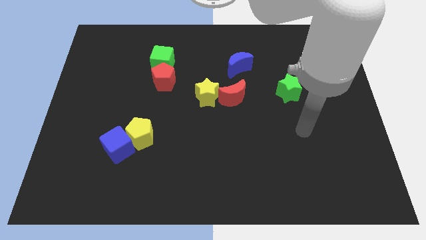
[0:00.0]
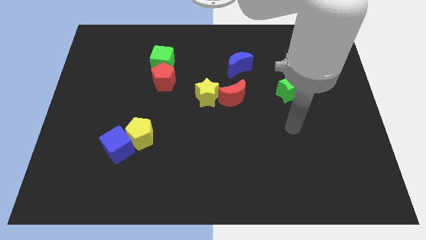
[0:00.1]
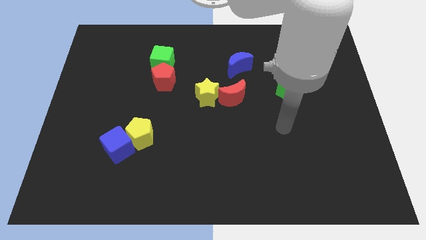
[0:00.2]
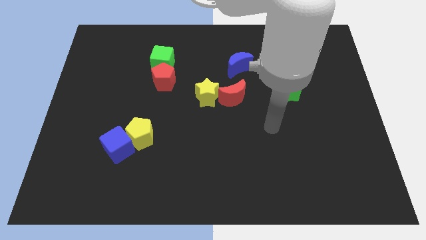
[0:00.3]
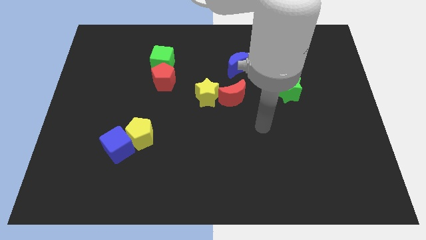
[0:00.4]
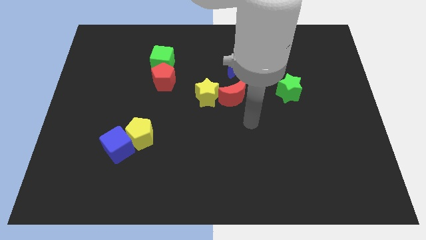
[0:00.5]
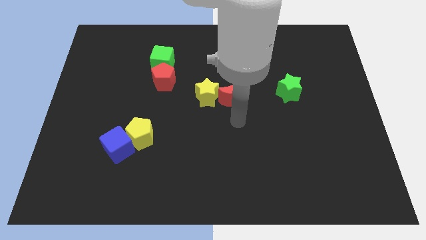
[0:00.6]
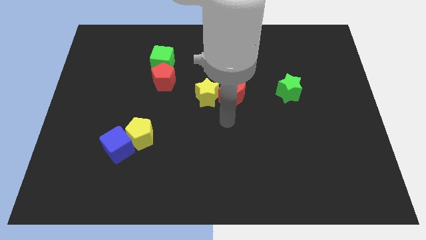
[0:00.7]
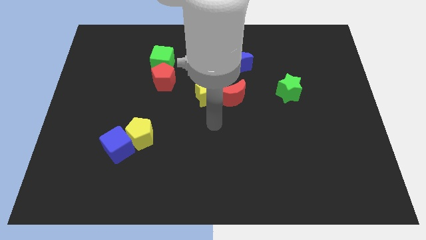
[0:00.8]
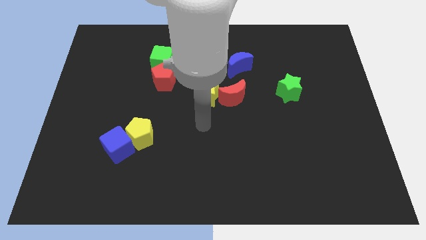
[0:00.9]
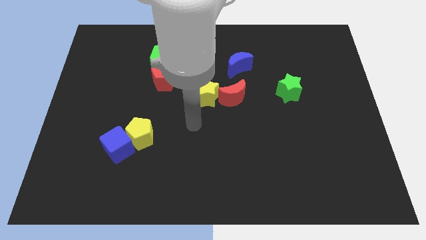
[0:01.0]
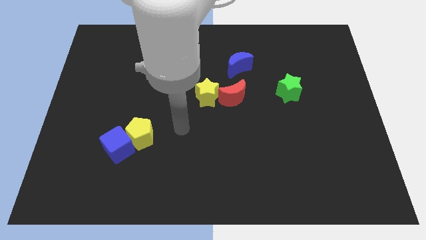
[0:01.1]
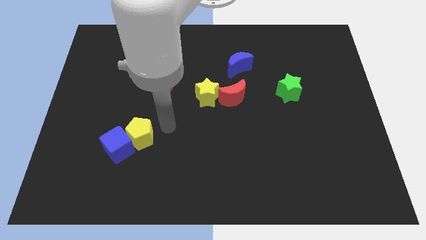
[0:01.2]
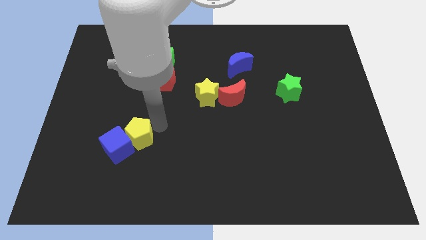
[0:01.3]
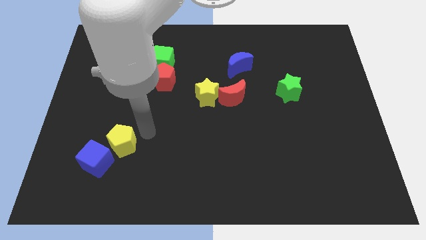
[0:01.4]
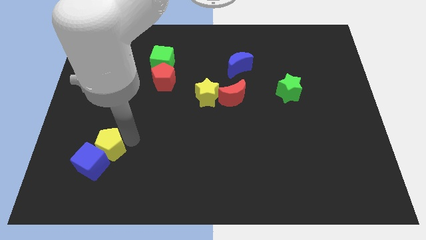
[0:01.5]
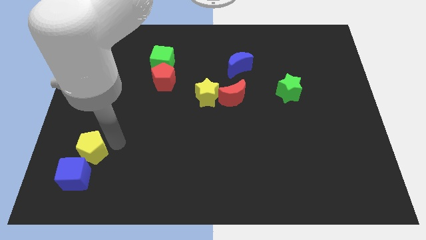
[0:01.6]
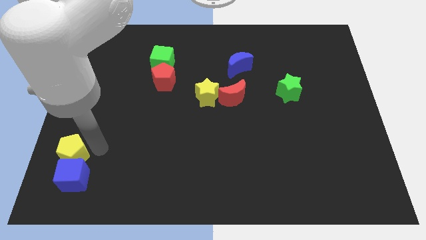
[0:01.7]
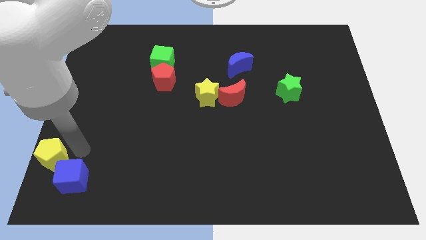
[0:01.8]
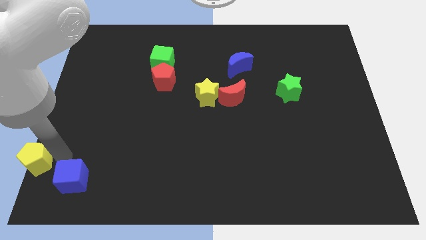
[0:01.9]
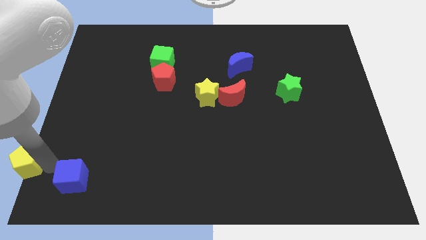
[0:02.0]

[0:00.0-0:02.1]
separate the blue cube from the yellow pentagon

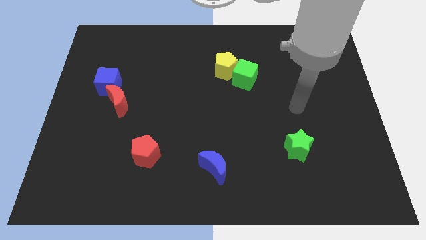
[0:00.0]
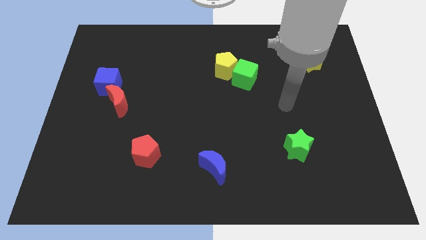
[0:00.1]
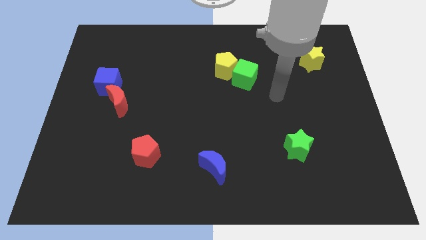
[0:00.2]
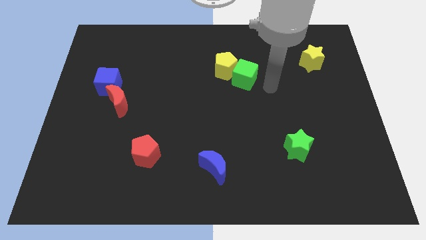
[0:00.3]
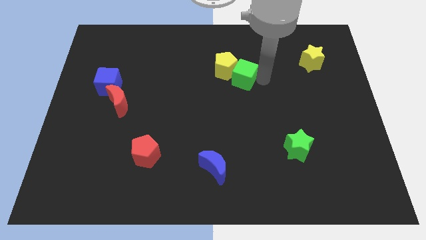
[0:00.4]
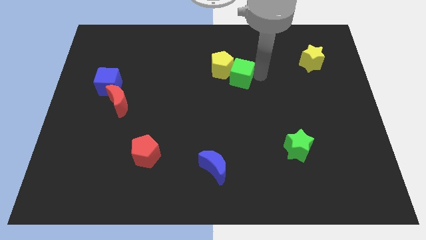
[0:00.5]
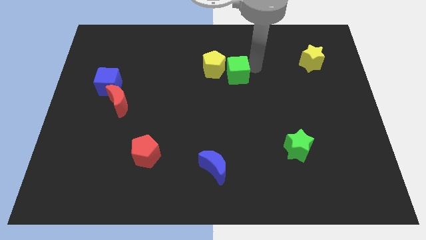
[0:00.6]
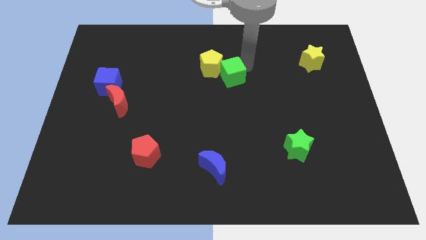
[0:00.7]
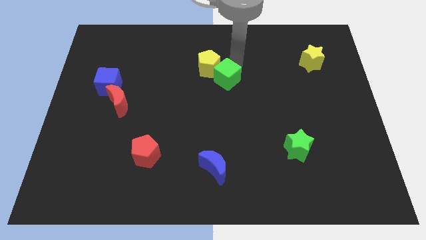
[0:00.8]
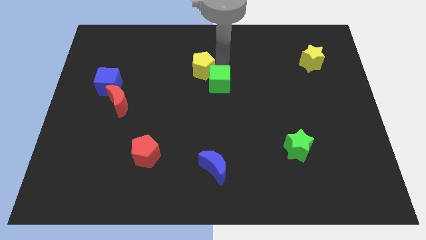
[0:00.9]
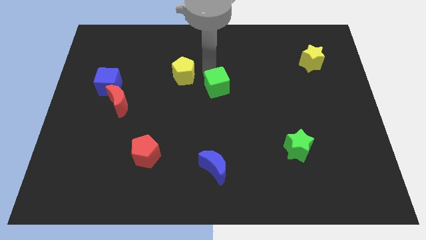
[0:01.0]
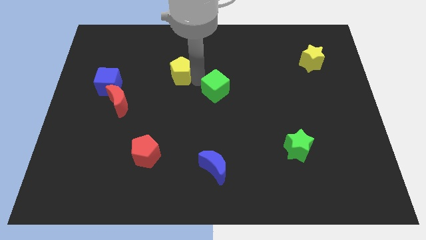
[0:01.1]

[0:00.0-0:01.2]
pull the green cube apart from the yellow pentagon

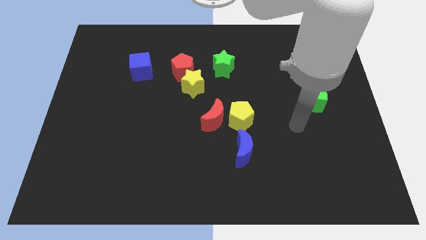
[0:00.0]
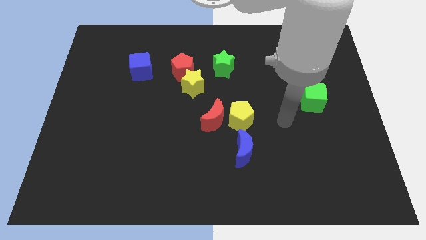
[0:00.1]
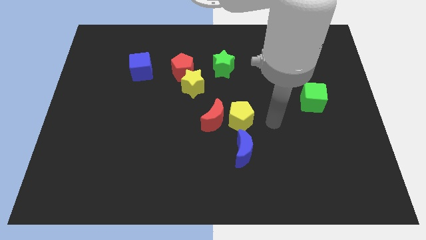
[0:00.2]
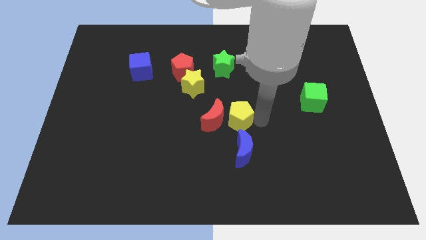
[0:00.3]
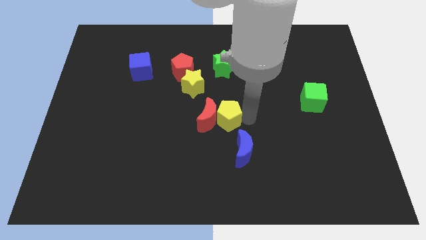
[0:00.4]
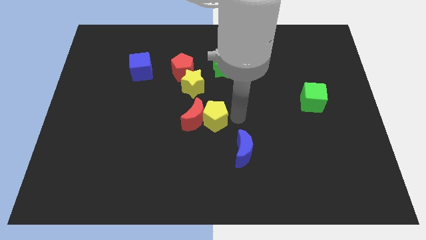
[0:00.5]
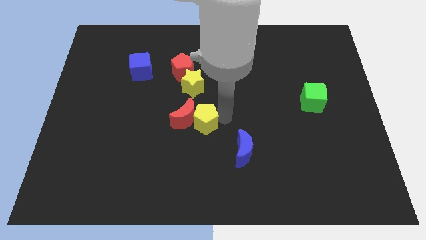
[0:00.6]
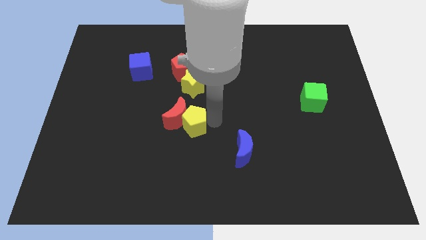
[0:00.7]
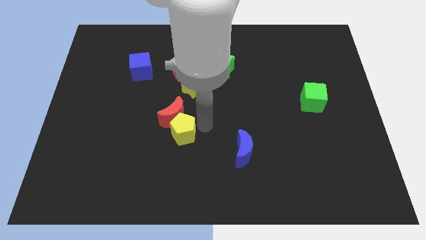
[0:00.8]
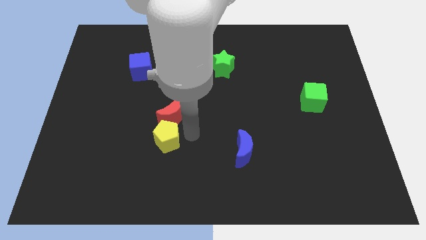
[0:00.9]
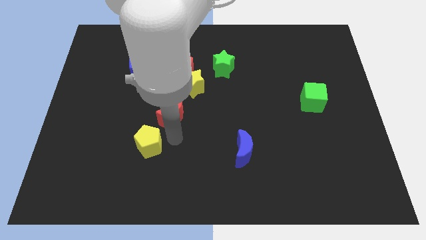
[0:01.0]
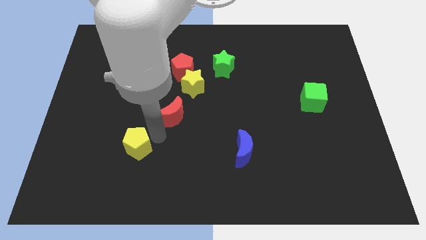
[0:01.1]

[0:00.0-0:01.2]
move the red moon away from the yellow pentagon

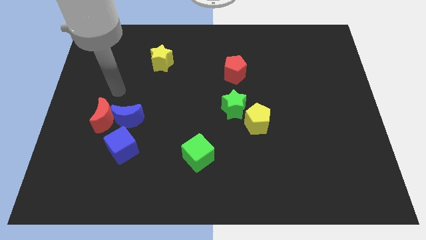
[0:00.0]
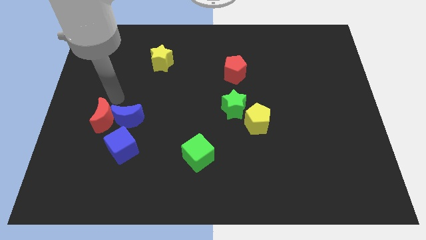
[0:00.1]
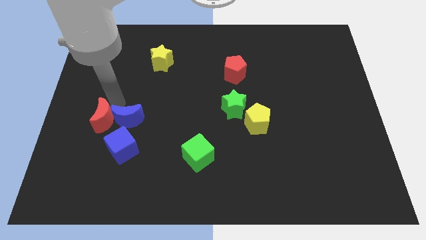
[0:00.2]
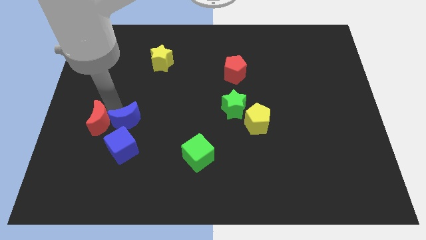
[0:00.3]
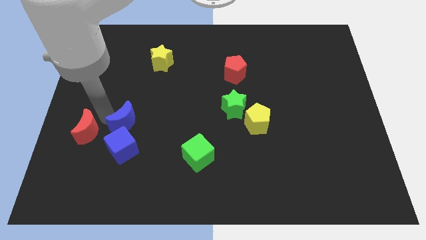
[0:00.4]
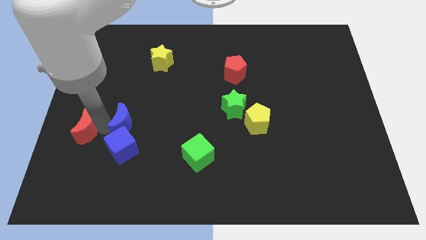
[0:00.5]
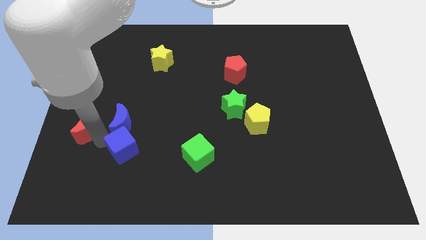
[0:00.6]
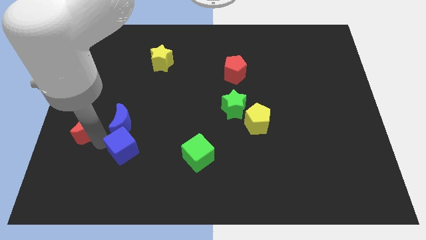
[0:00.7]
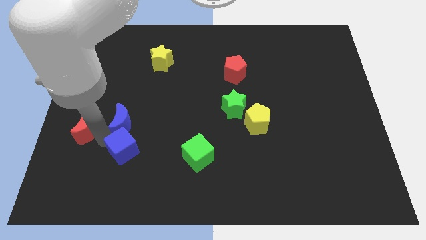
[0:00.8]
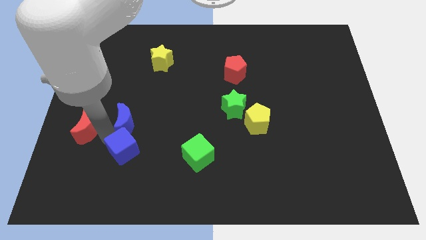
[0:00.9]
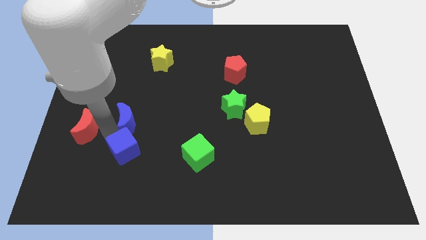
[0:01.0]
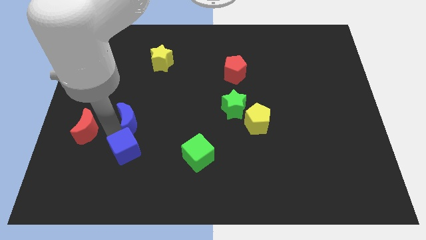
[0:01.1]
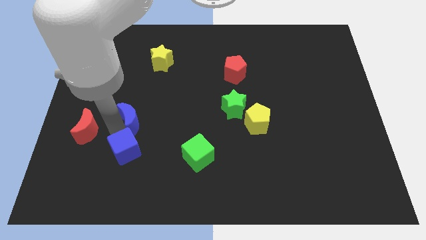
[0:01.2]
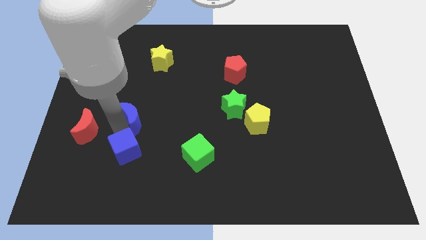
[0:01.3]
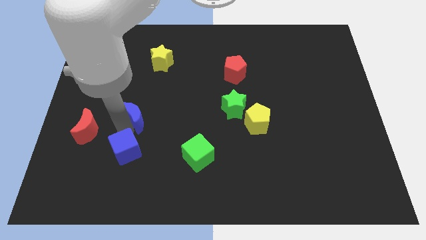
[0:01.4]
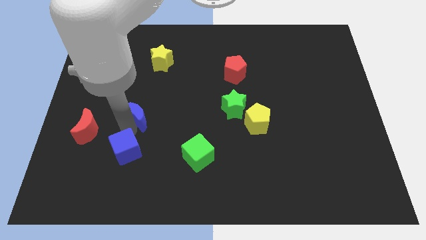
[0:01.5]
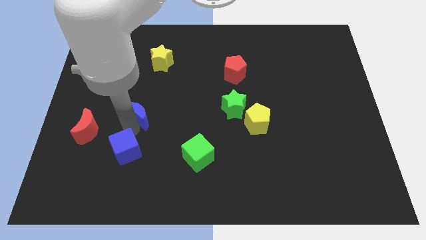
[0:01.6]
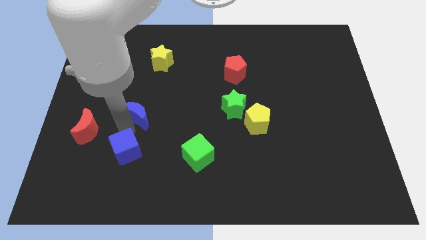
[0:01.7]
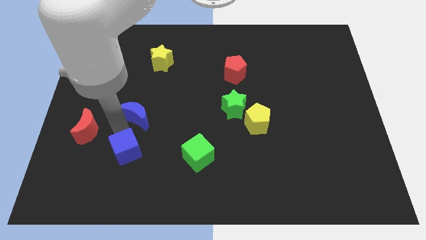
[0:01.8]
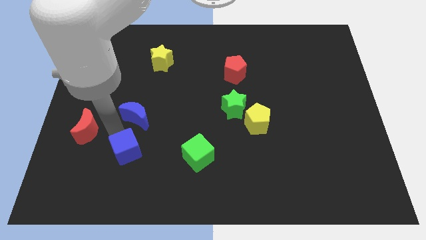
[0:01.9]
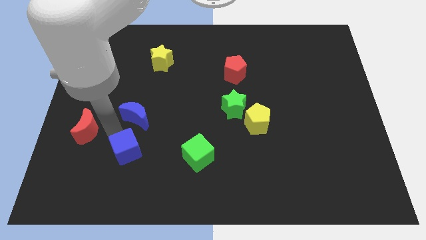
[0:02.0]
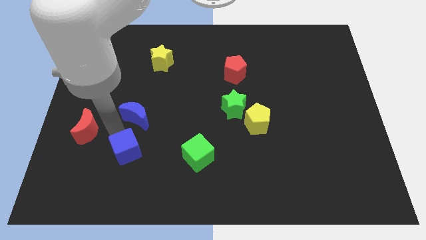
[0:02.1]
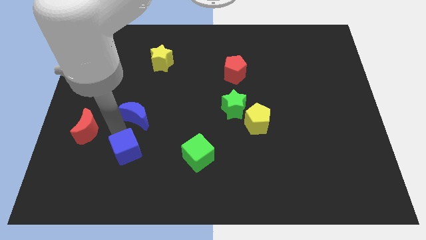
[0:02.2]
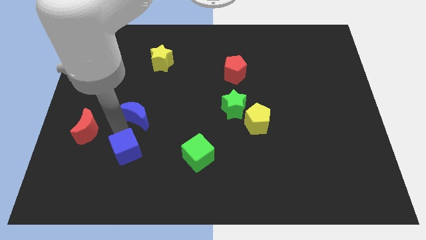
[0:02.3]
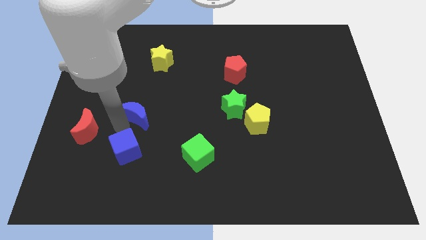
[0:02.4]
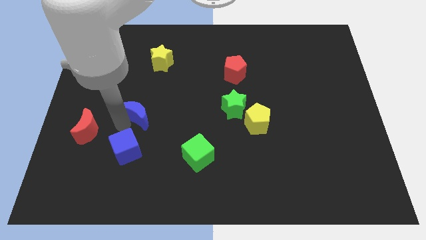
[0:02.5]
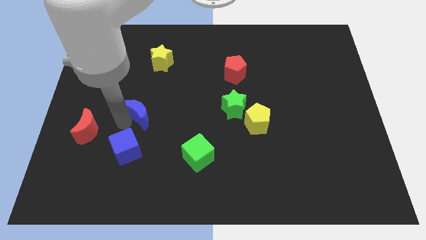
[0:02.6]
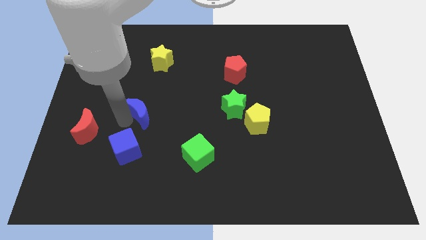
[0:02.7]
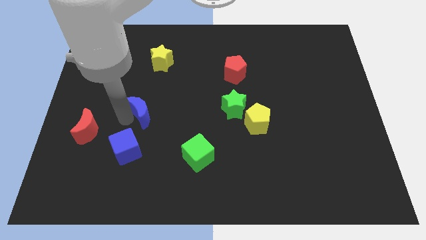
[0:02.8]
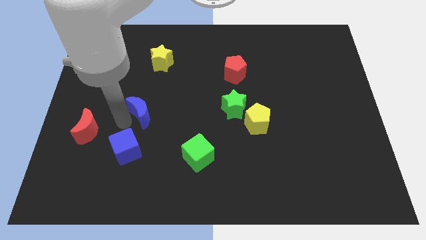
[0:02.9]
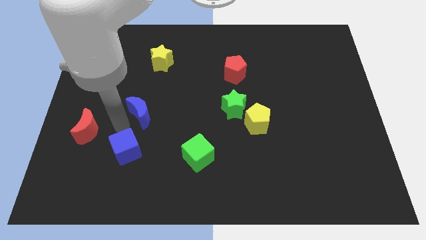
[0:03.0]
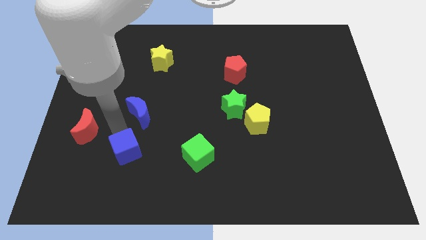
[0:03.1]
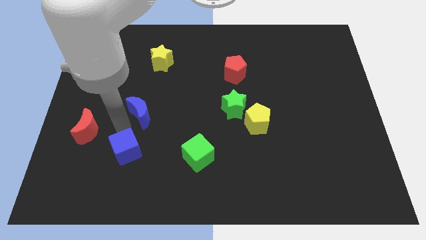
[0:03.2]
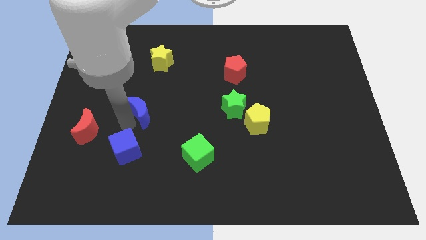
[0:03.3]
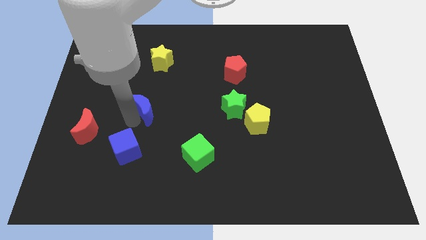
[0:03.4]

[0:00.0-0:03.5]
separate the blue moon from the red moon and blue cube

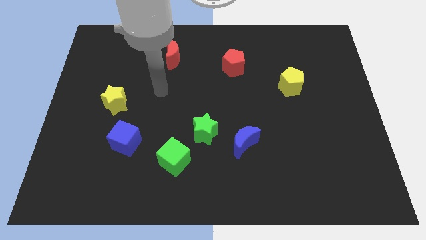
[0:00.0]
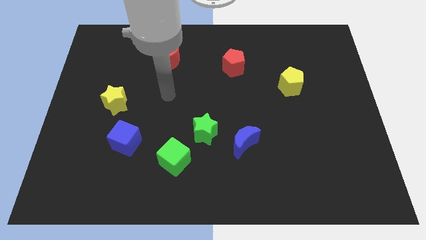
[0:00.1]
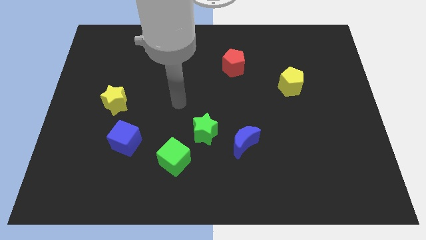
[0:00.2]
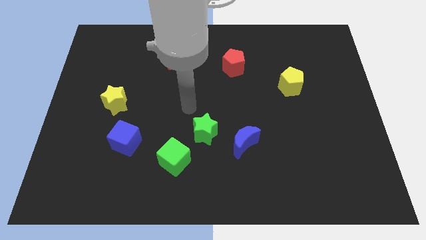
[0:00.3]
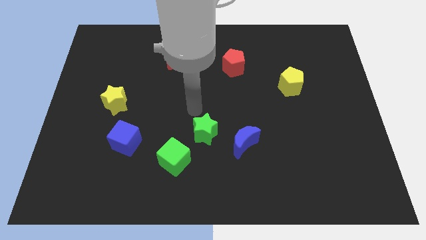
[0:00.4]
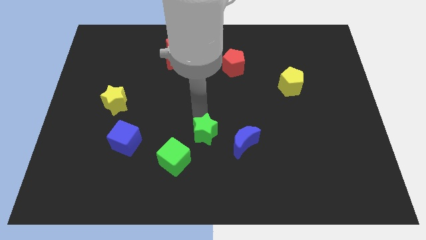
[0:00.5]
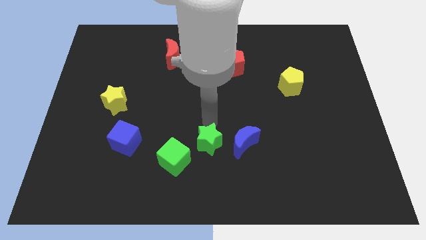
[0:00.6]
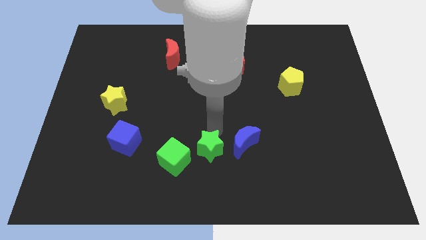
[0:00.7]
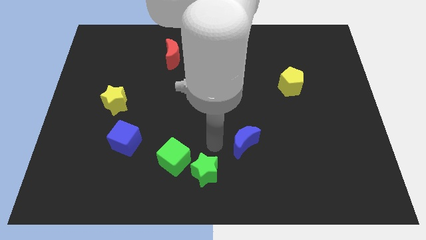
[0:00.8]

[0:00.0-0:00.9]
pull the blue moon apart from the green star

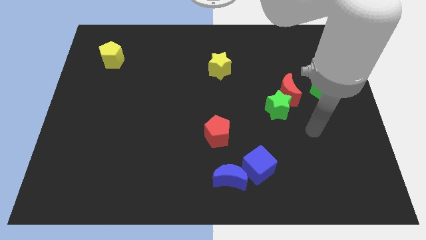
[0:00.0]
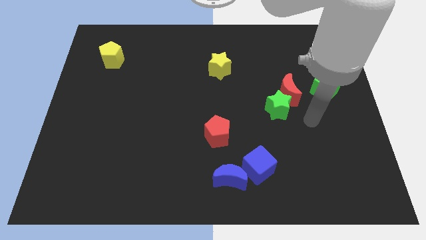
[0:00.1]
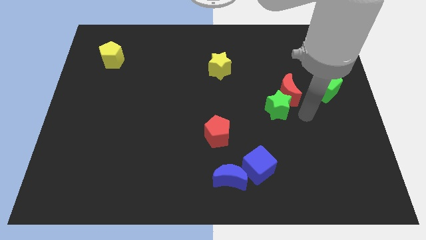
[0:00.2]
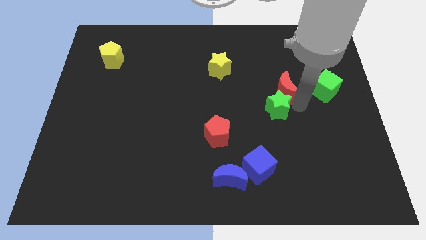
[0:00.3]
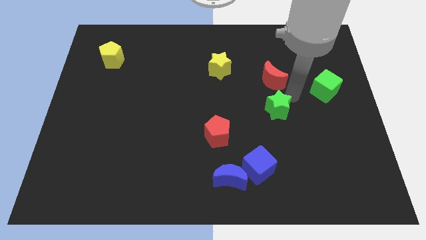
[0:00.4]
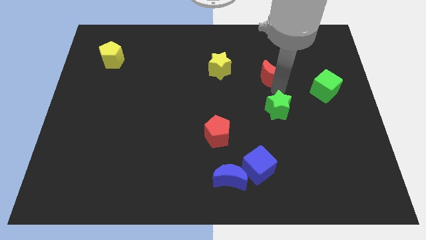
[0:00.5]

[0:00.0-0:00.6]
separate the green star from the red moon
